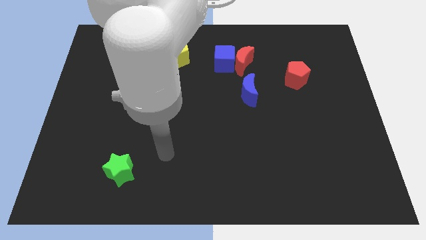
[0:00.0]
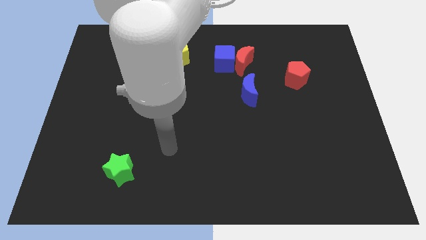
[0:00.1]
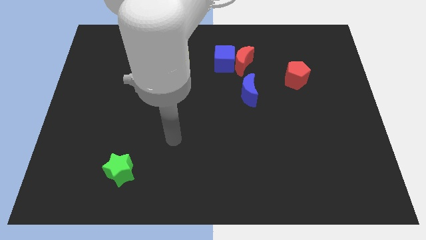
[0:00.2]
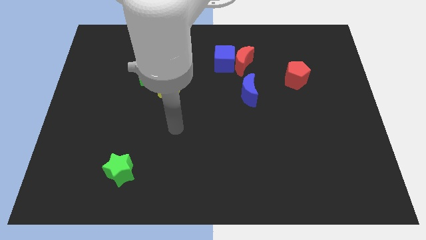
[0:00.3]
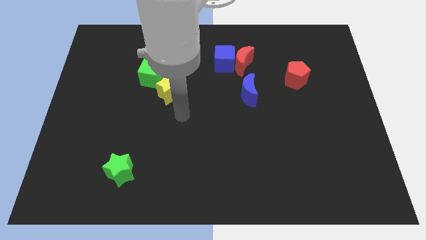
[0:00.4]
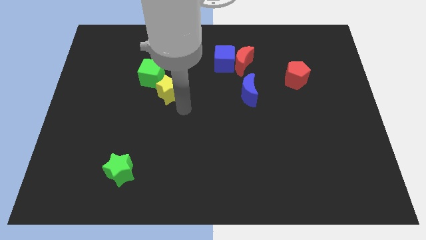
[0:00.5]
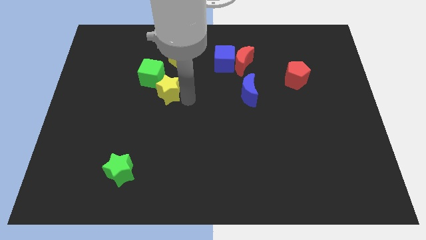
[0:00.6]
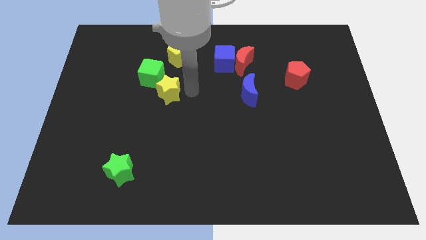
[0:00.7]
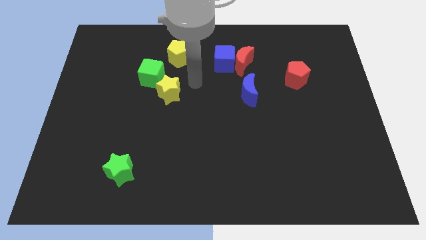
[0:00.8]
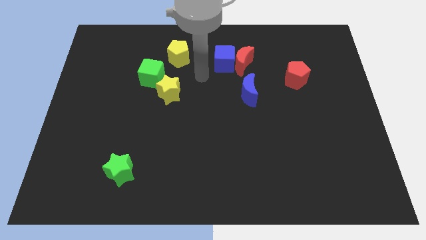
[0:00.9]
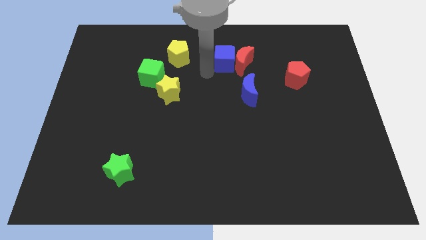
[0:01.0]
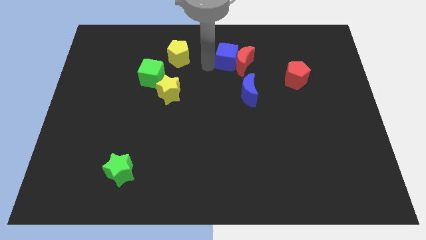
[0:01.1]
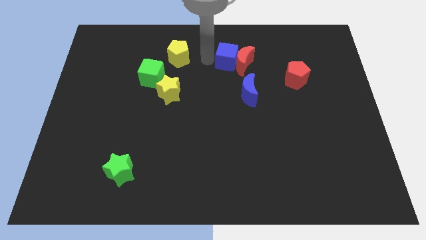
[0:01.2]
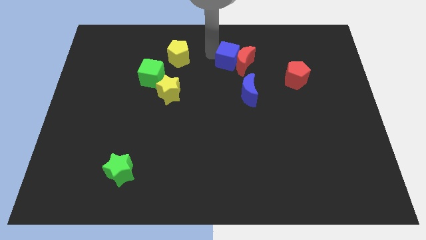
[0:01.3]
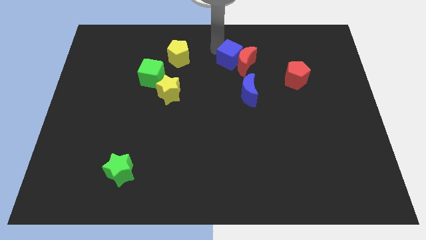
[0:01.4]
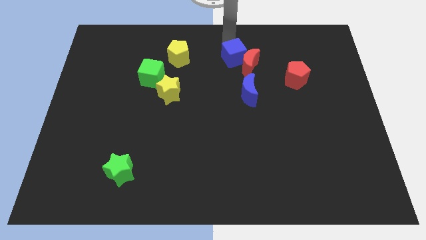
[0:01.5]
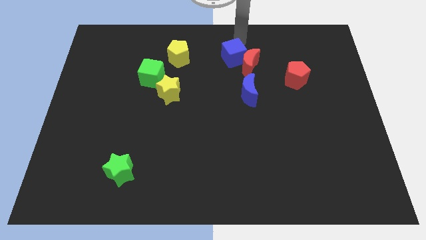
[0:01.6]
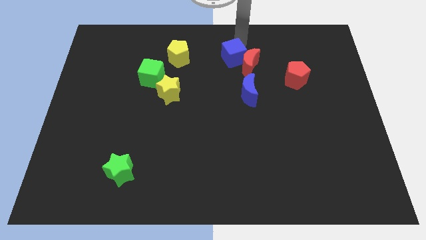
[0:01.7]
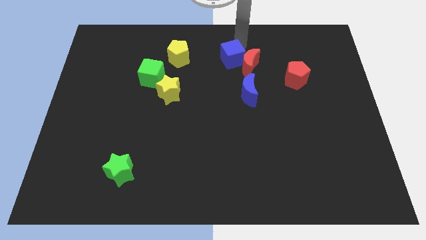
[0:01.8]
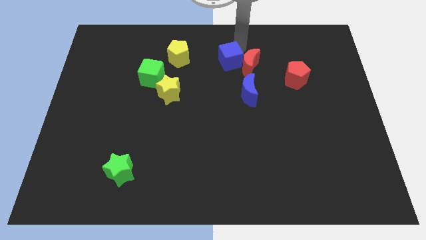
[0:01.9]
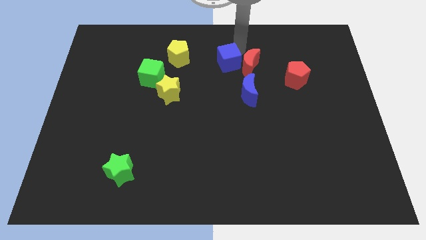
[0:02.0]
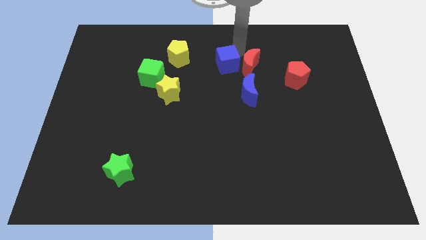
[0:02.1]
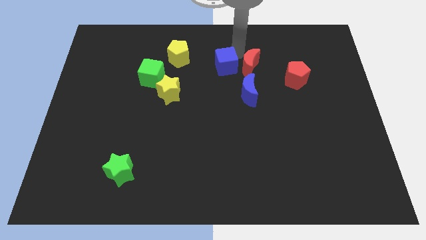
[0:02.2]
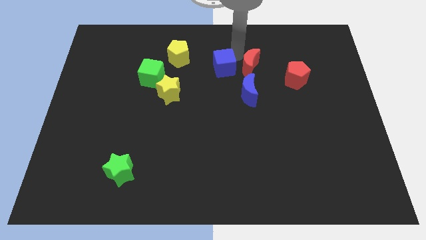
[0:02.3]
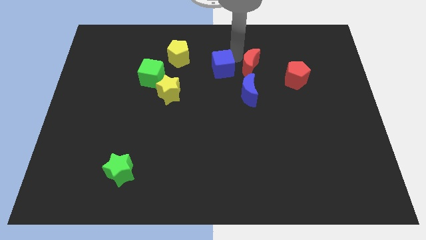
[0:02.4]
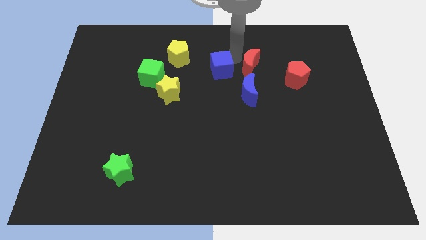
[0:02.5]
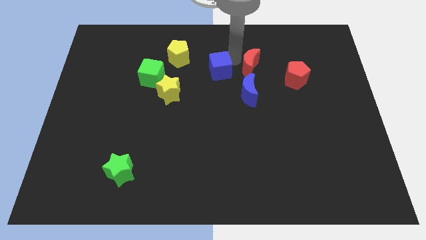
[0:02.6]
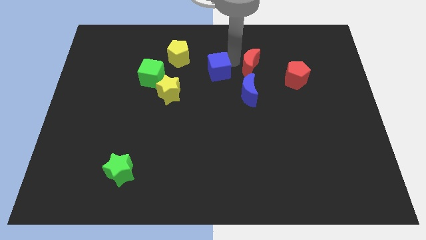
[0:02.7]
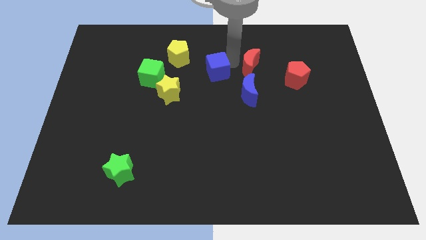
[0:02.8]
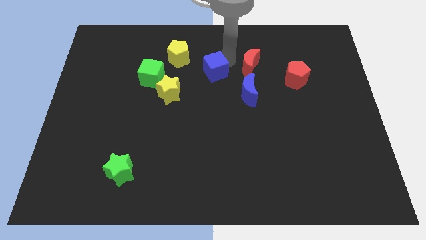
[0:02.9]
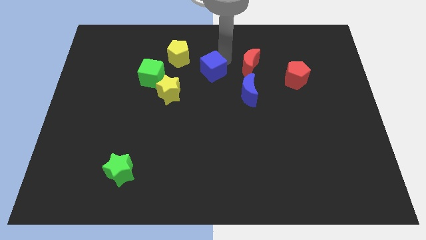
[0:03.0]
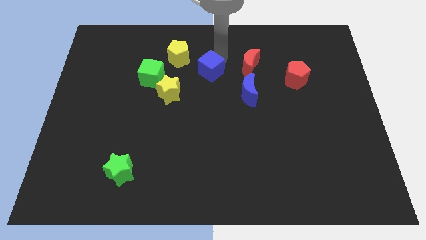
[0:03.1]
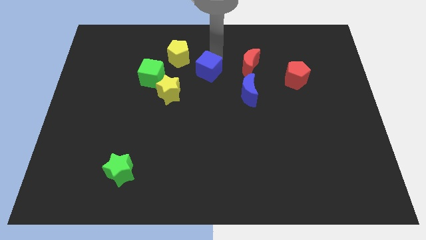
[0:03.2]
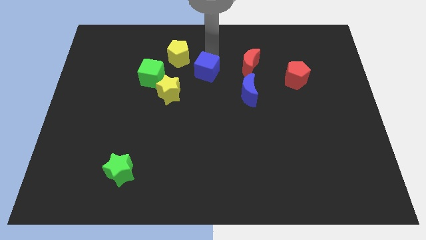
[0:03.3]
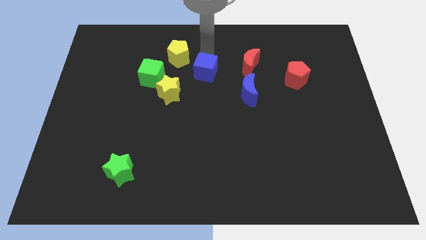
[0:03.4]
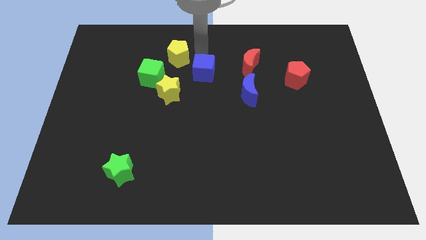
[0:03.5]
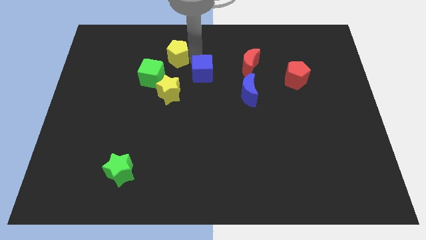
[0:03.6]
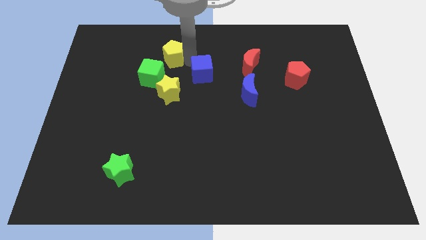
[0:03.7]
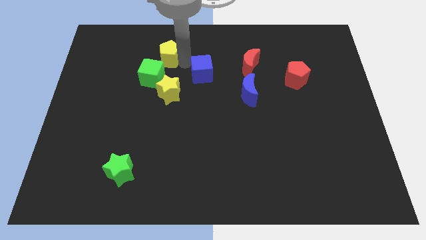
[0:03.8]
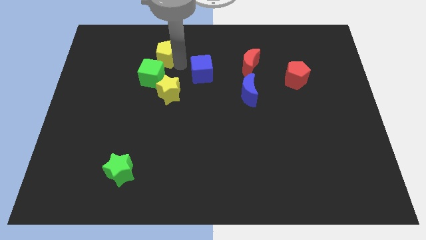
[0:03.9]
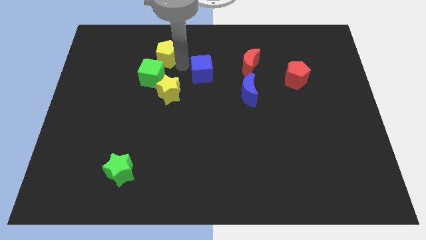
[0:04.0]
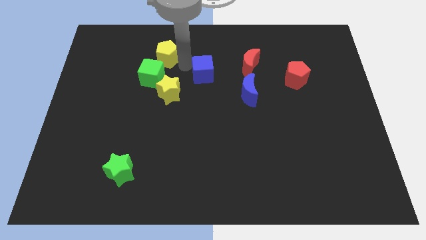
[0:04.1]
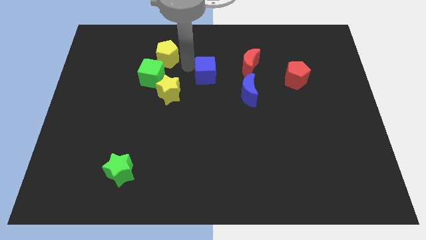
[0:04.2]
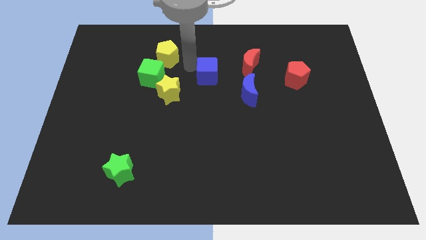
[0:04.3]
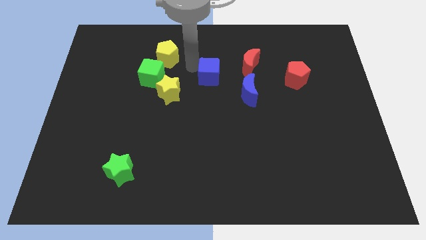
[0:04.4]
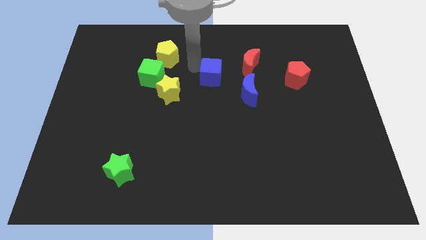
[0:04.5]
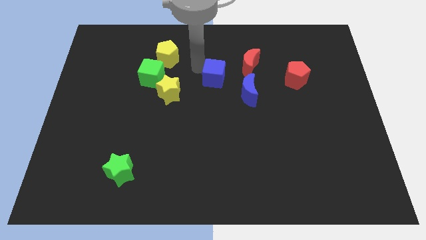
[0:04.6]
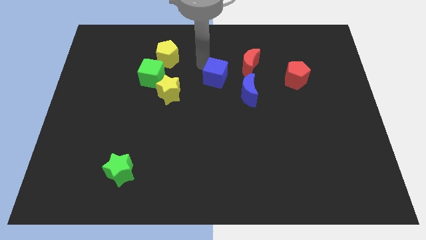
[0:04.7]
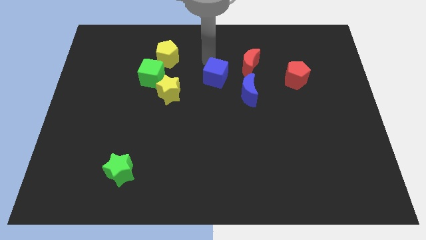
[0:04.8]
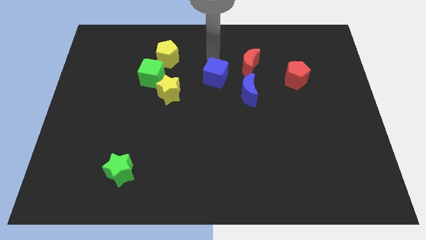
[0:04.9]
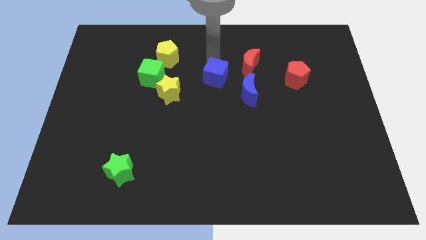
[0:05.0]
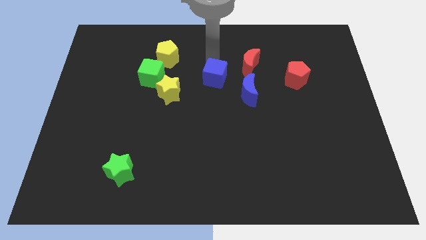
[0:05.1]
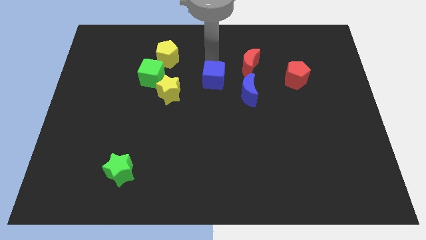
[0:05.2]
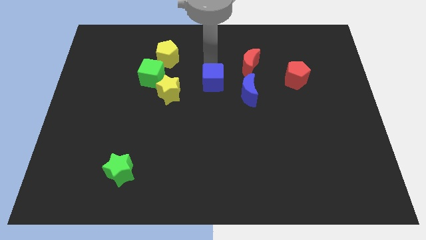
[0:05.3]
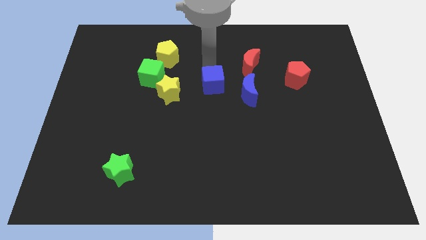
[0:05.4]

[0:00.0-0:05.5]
push the blue cube a bit down

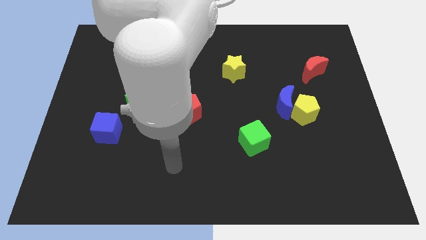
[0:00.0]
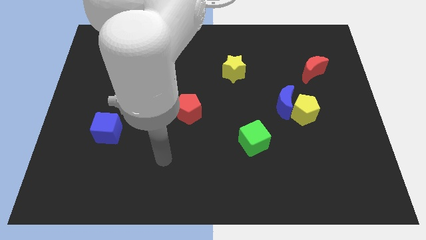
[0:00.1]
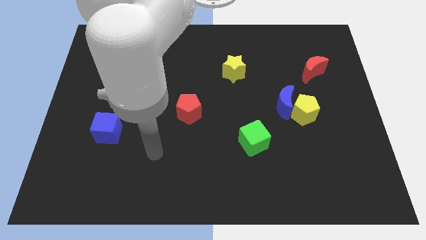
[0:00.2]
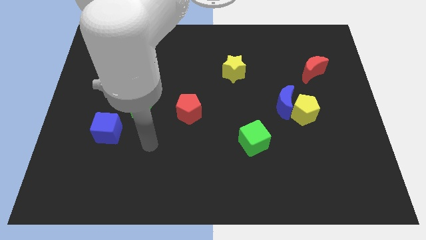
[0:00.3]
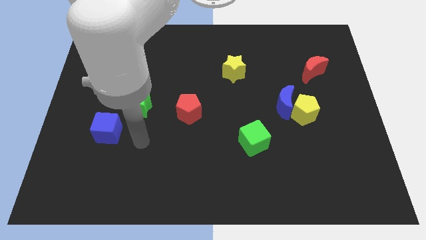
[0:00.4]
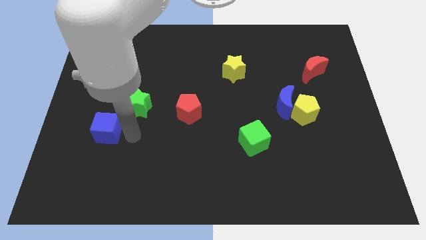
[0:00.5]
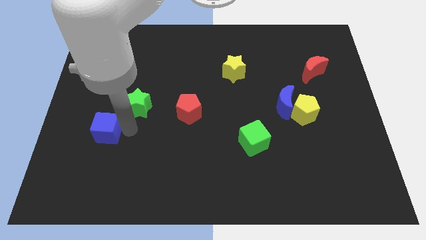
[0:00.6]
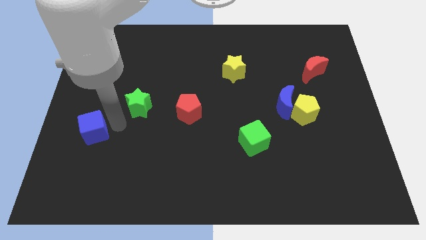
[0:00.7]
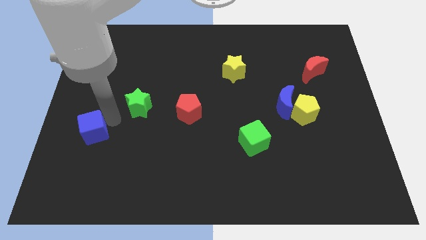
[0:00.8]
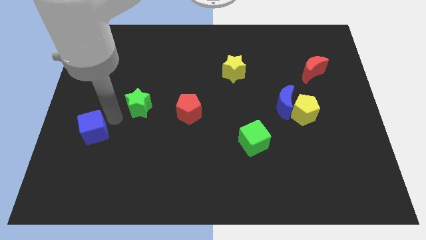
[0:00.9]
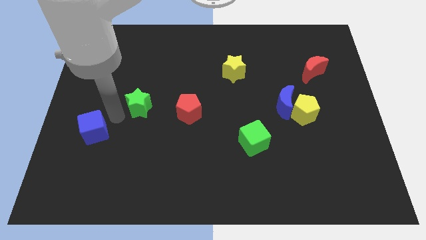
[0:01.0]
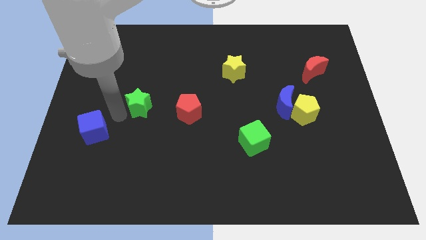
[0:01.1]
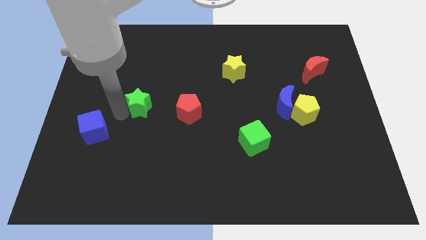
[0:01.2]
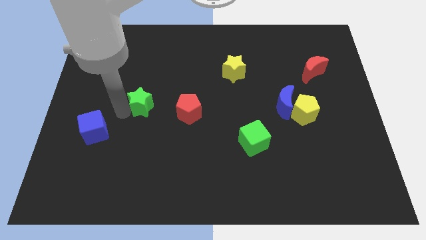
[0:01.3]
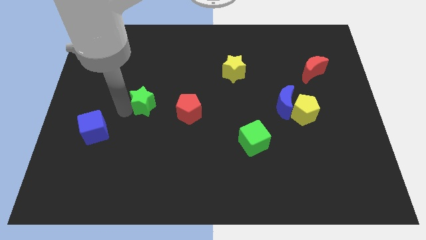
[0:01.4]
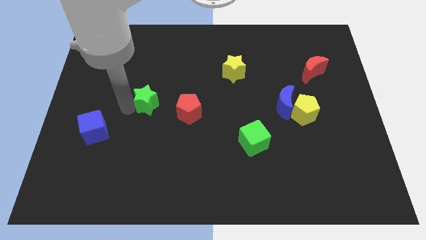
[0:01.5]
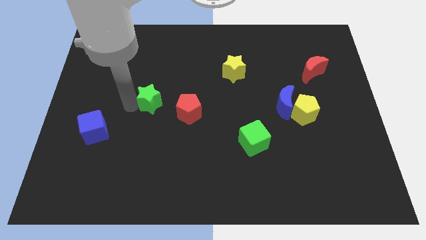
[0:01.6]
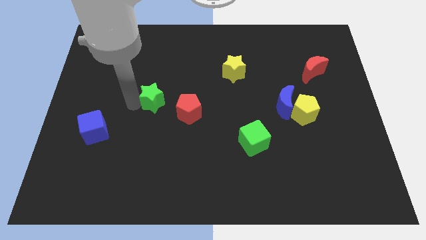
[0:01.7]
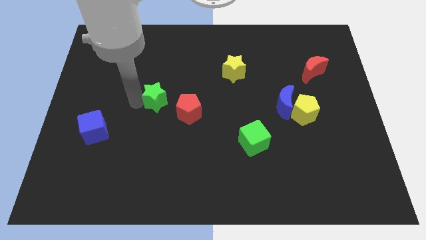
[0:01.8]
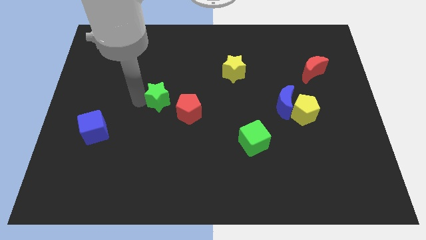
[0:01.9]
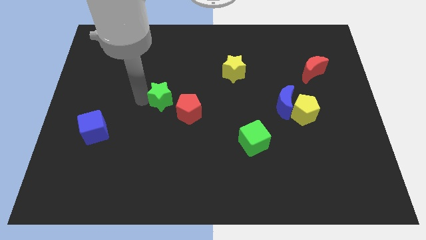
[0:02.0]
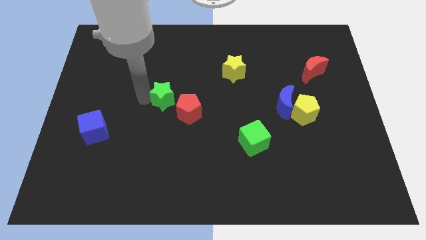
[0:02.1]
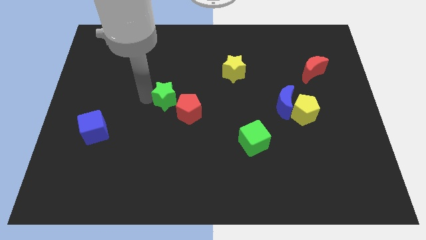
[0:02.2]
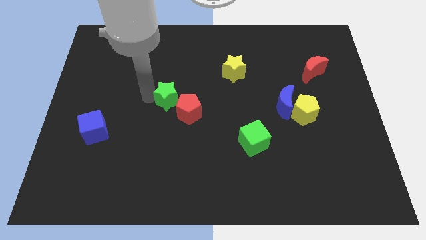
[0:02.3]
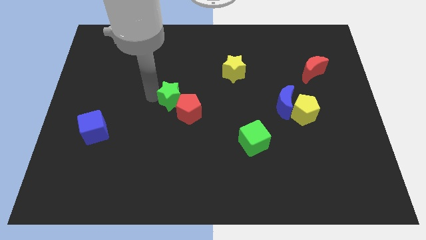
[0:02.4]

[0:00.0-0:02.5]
slightly slide the green star right

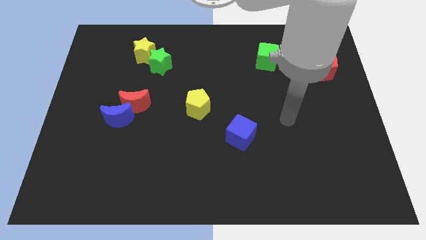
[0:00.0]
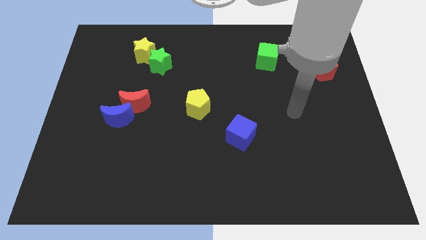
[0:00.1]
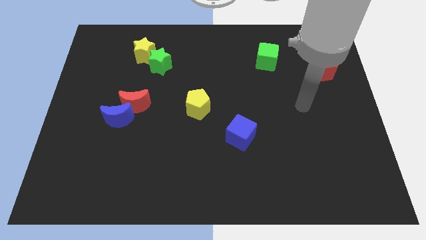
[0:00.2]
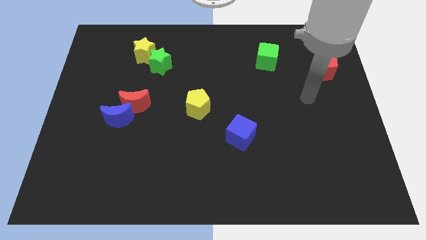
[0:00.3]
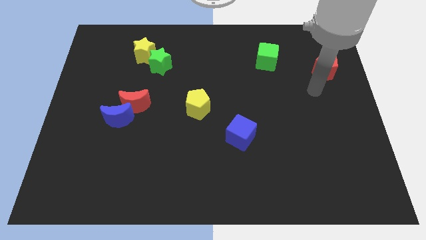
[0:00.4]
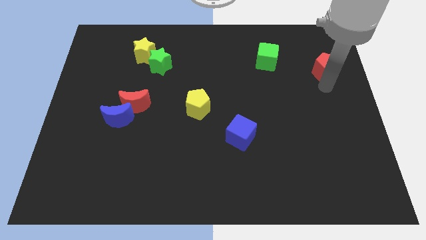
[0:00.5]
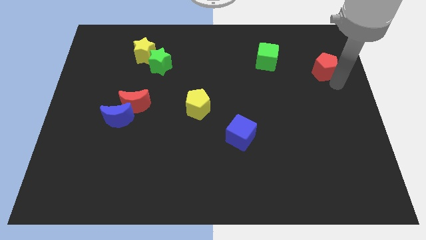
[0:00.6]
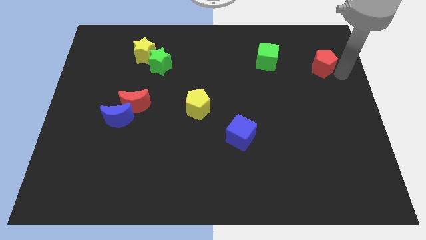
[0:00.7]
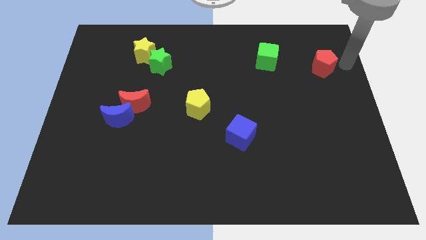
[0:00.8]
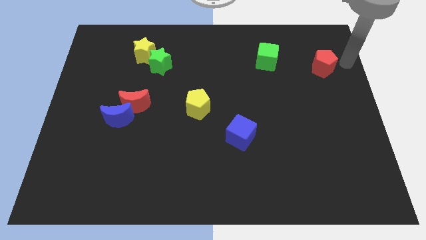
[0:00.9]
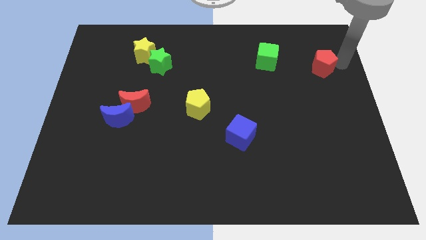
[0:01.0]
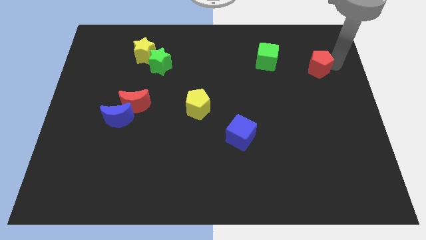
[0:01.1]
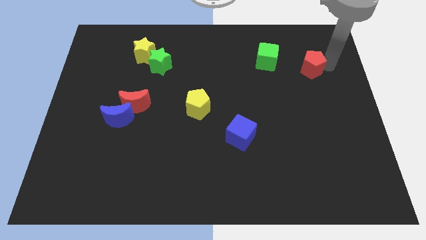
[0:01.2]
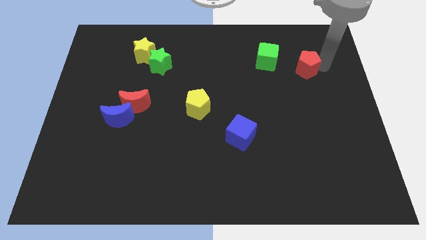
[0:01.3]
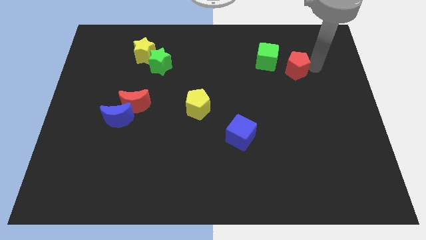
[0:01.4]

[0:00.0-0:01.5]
slide the red pentagon a little to the left
